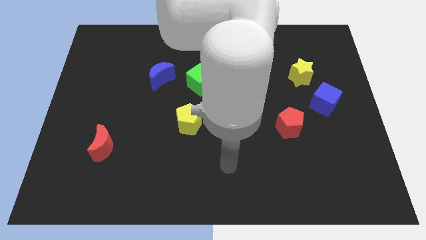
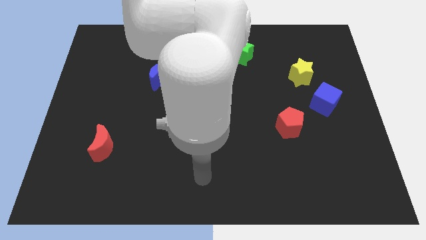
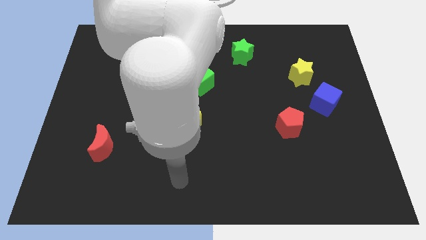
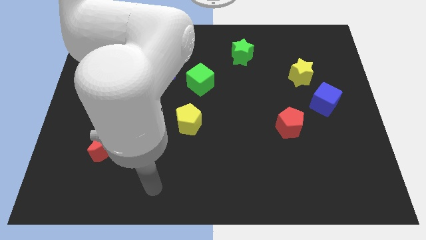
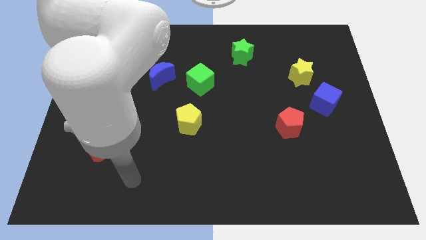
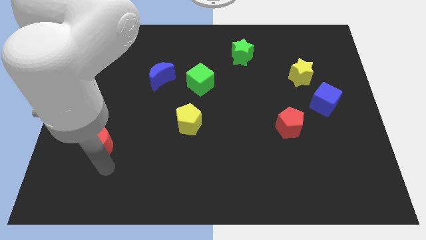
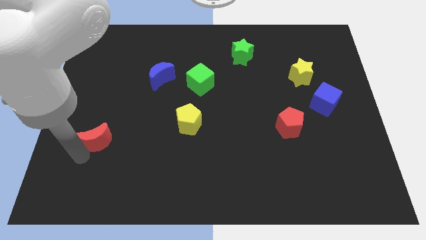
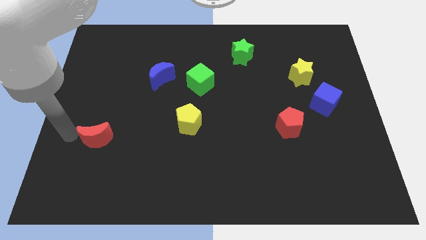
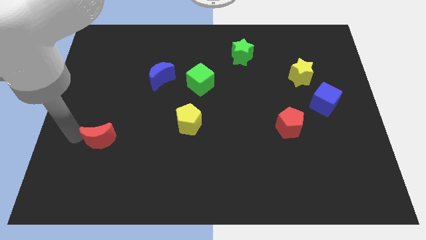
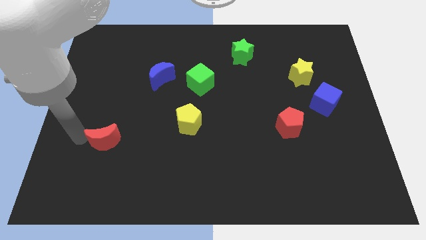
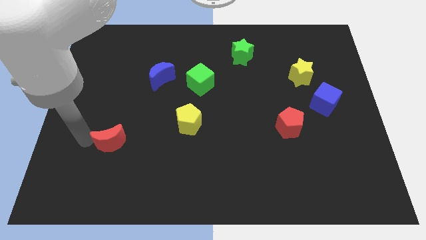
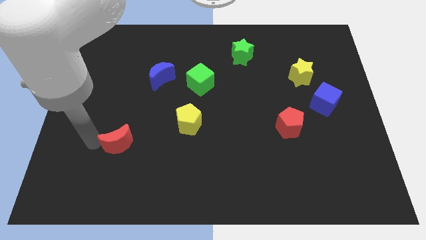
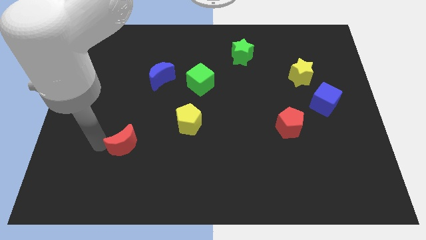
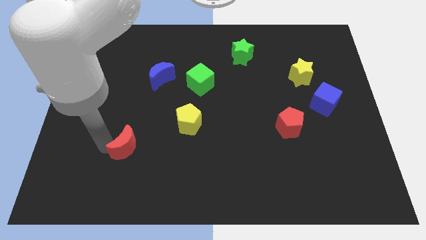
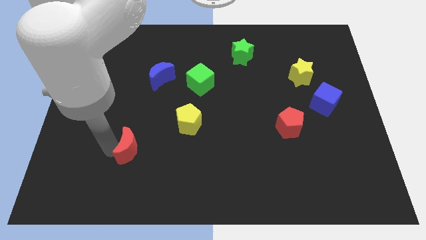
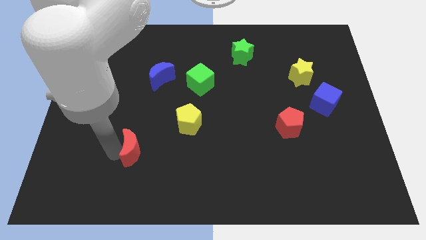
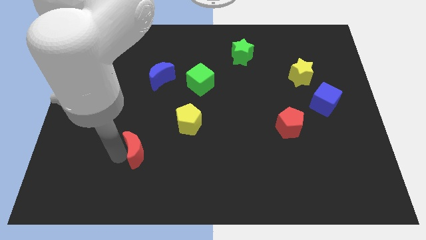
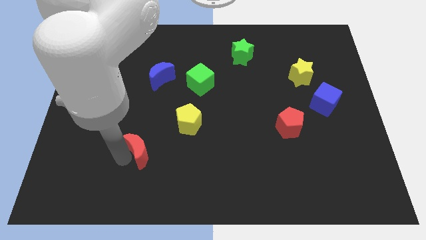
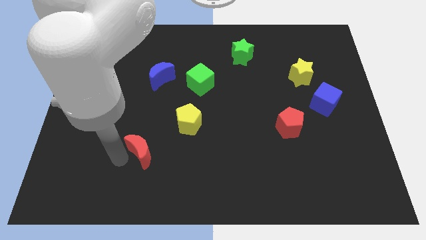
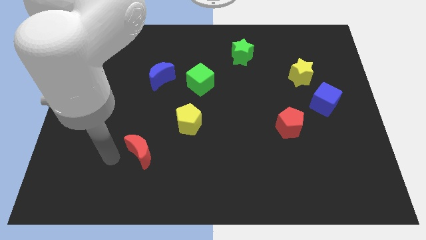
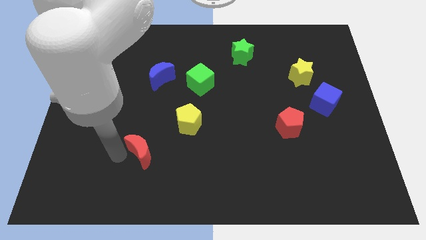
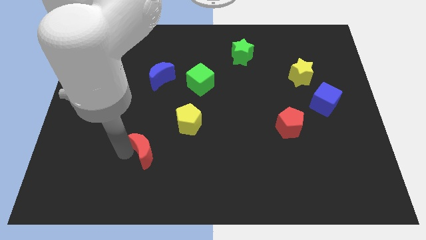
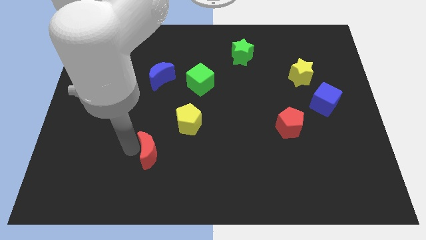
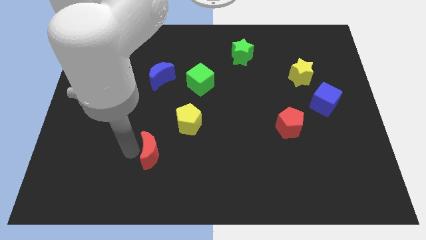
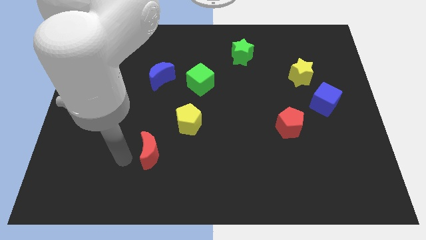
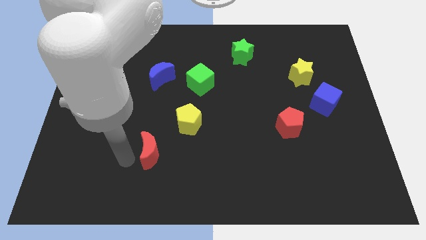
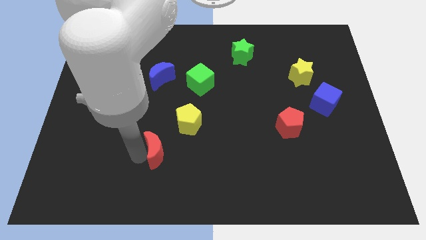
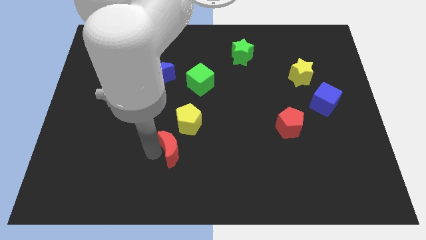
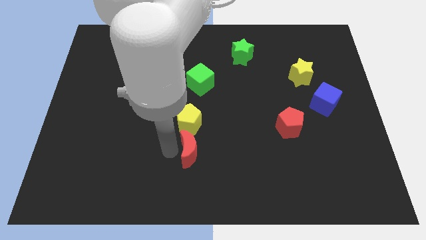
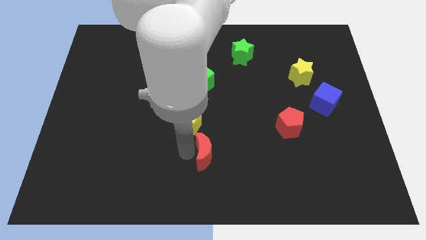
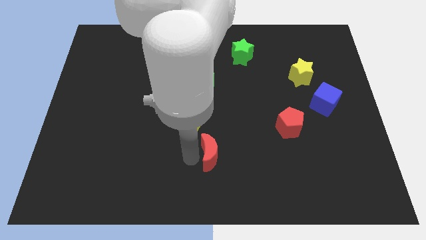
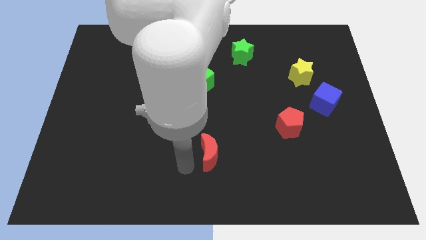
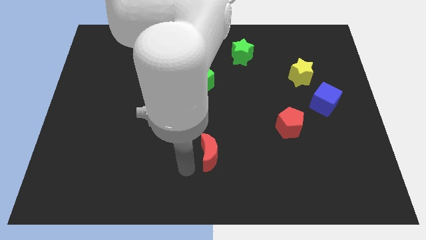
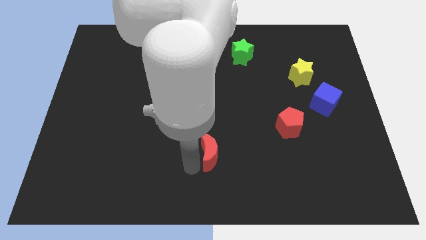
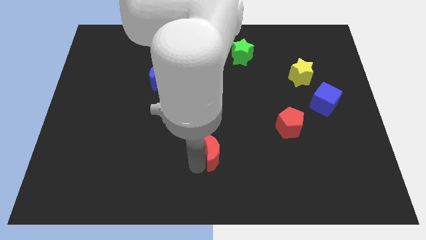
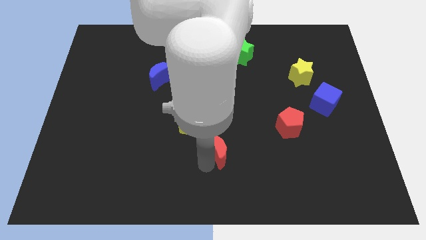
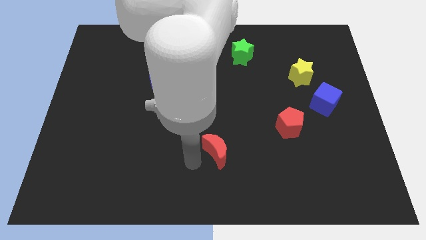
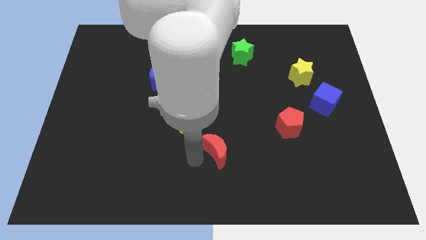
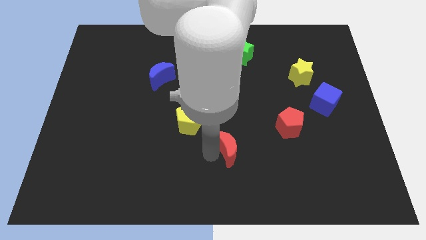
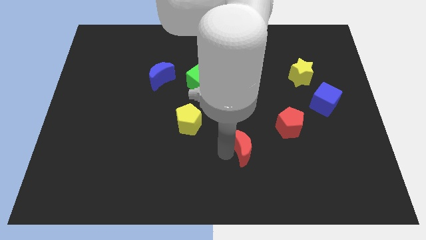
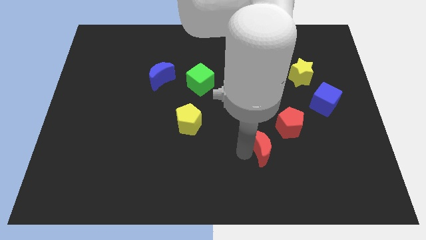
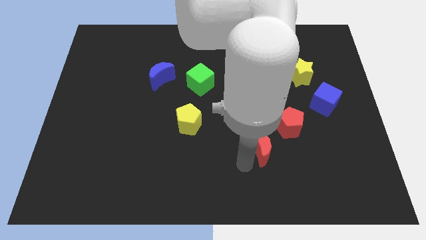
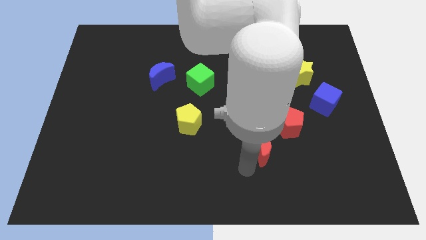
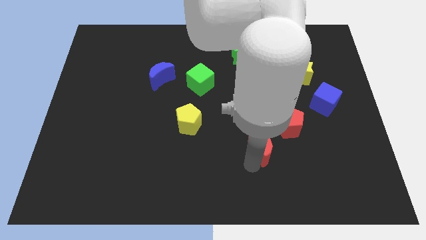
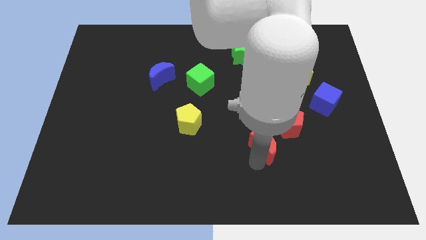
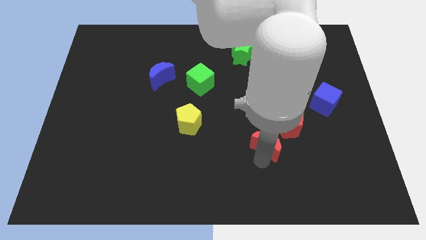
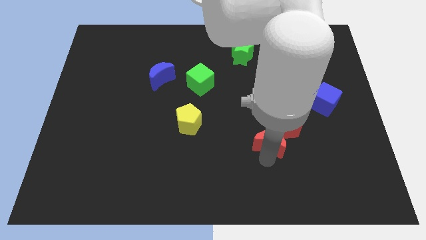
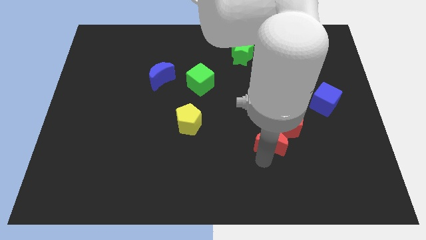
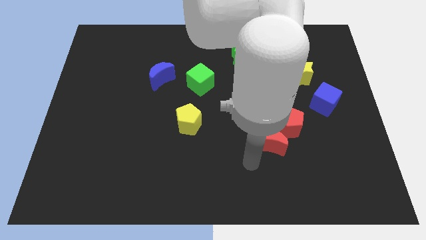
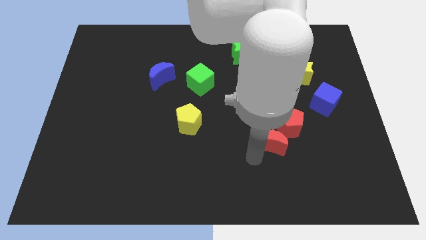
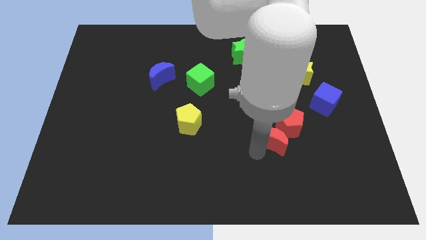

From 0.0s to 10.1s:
slide the red moon towards the red pentagon
